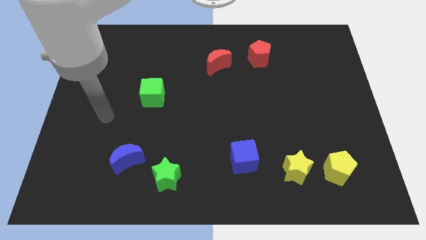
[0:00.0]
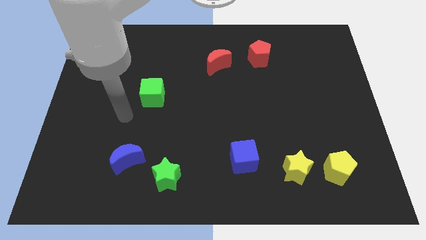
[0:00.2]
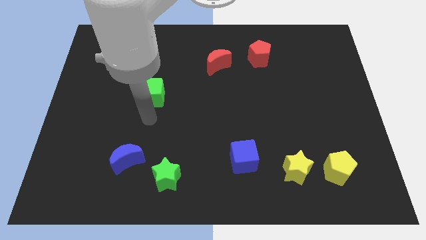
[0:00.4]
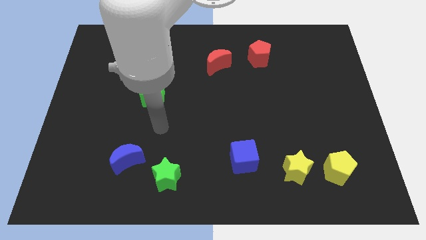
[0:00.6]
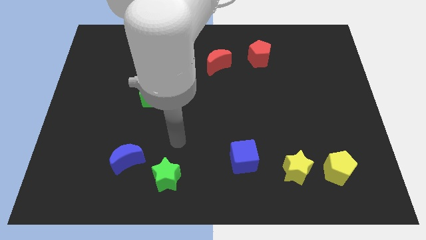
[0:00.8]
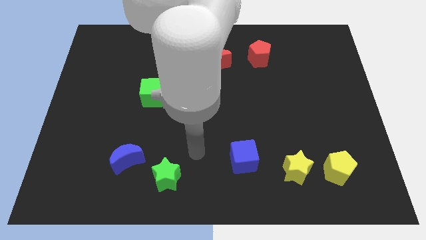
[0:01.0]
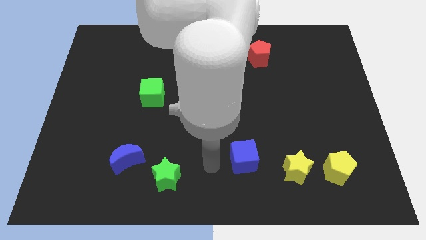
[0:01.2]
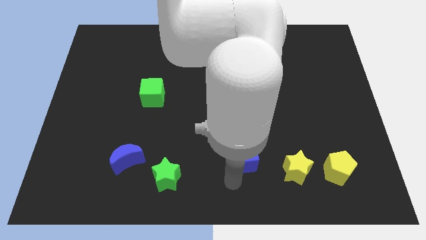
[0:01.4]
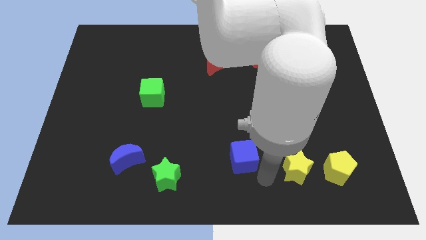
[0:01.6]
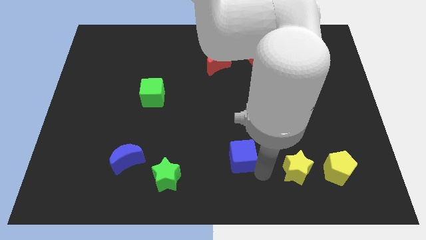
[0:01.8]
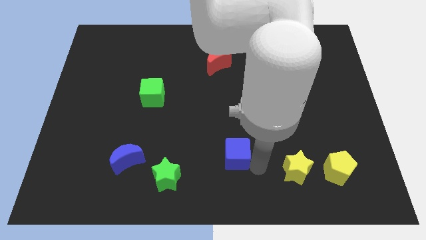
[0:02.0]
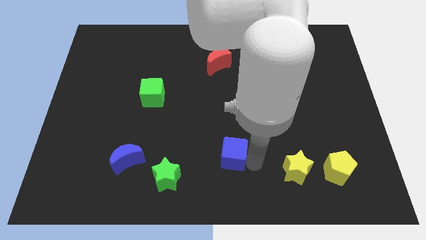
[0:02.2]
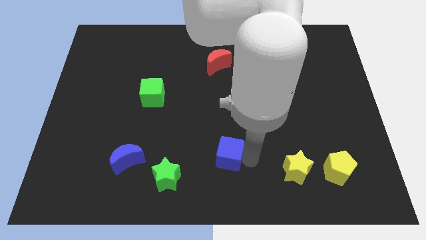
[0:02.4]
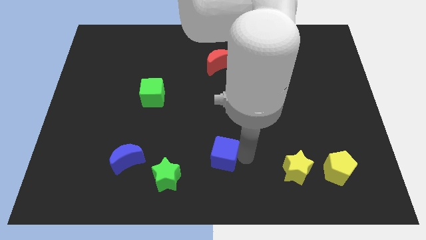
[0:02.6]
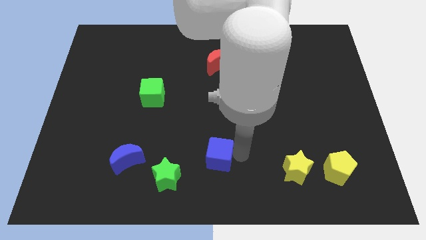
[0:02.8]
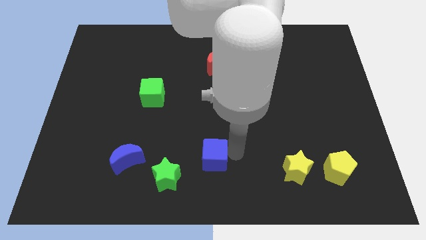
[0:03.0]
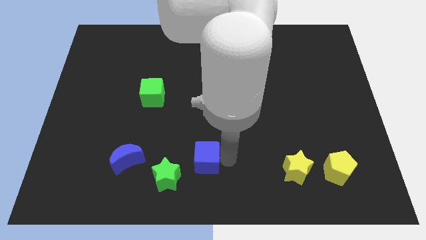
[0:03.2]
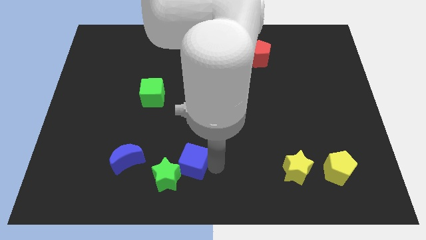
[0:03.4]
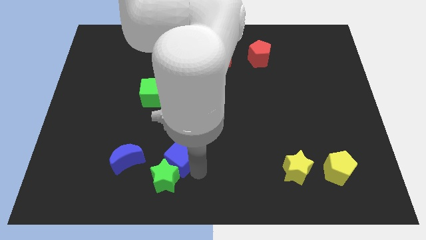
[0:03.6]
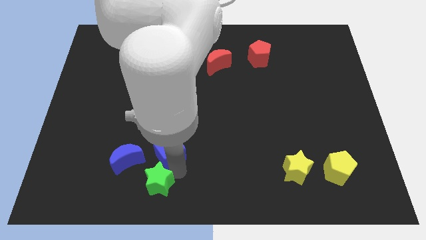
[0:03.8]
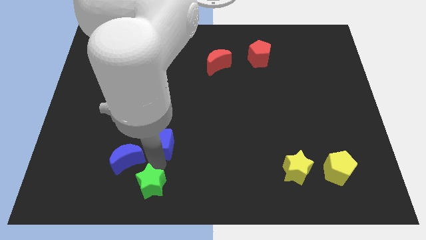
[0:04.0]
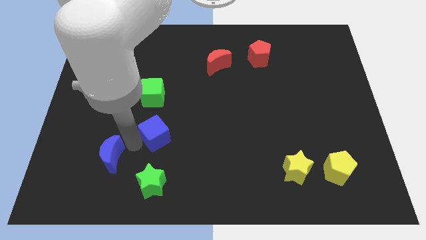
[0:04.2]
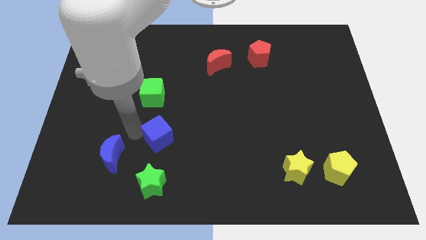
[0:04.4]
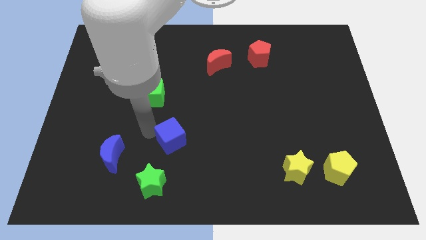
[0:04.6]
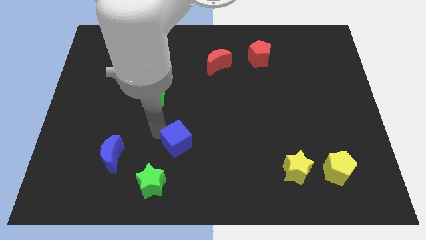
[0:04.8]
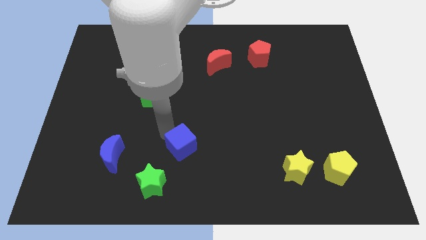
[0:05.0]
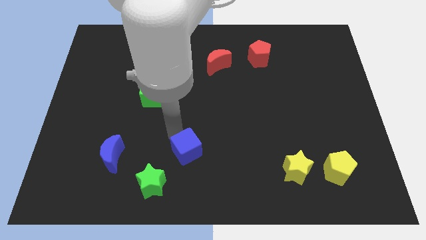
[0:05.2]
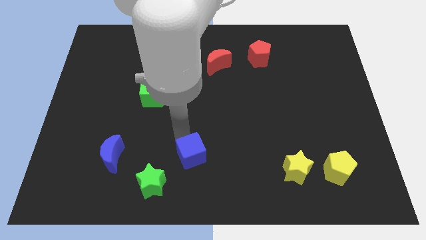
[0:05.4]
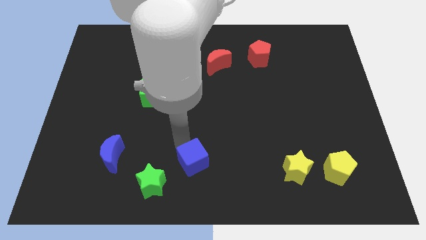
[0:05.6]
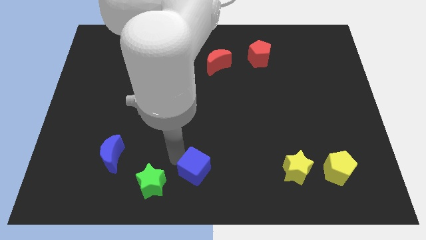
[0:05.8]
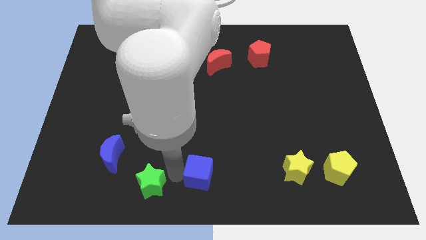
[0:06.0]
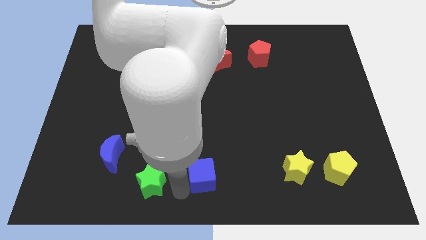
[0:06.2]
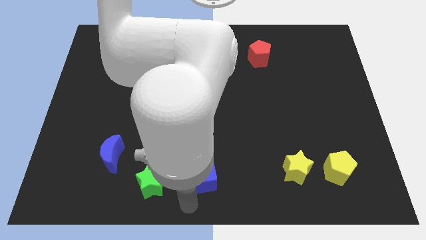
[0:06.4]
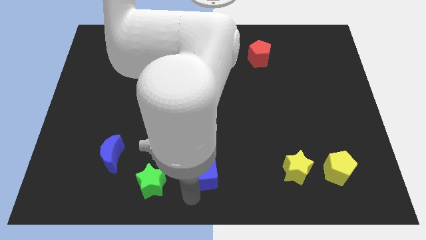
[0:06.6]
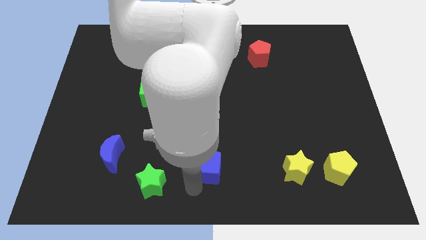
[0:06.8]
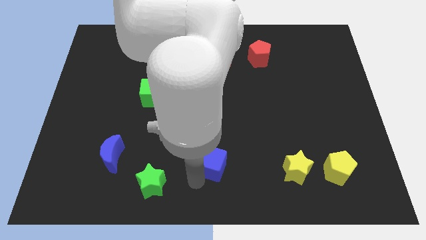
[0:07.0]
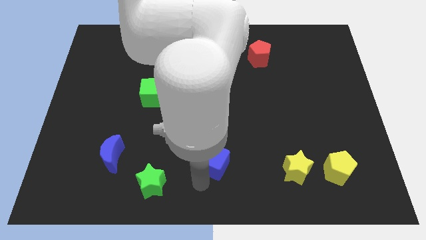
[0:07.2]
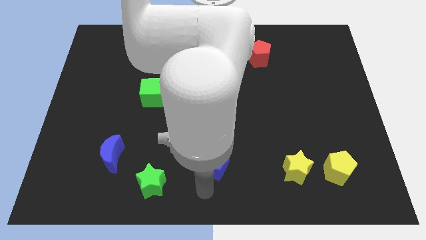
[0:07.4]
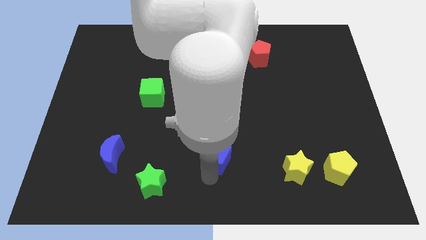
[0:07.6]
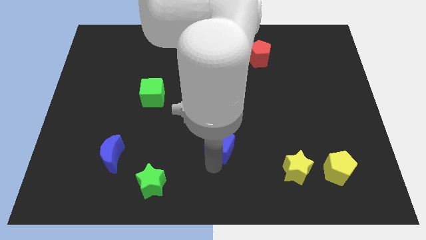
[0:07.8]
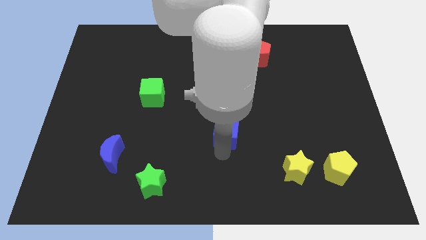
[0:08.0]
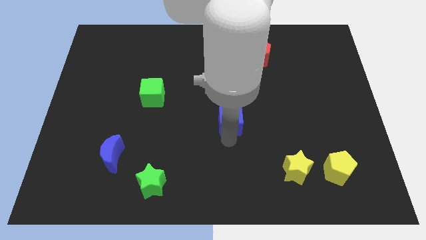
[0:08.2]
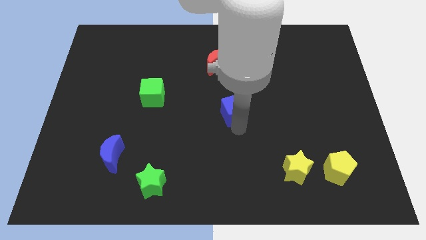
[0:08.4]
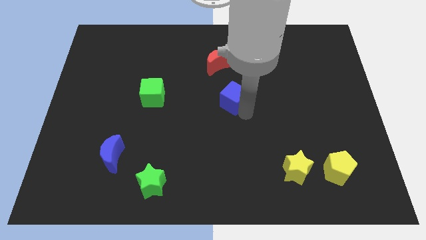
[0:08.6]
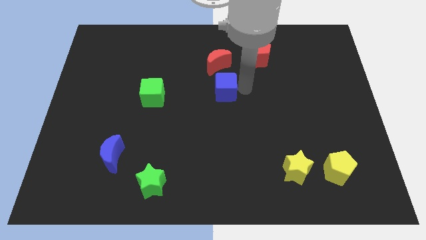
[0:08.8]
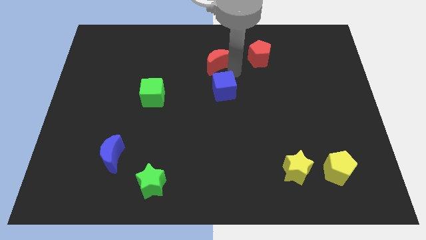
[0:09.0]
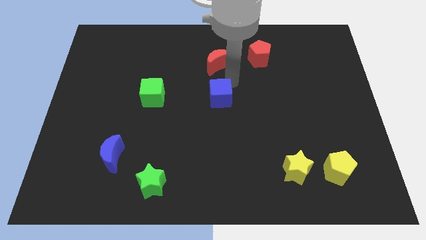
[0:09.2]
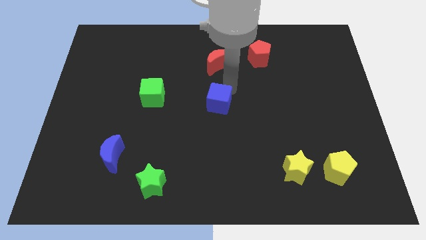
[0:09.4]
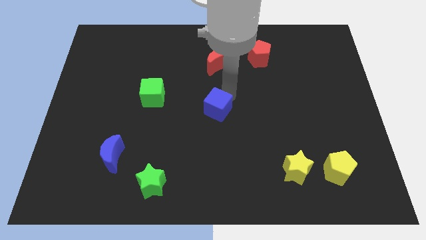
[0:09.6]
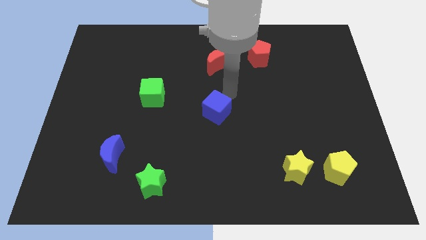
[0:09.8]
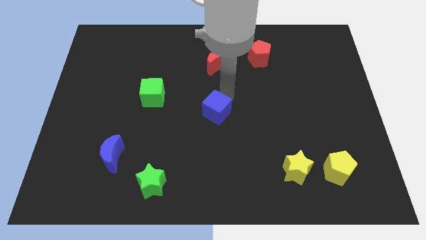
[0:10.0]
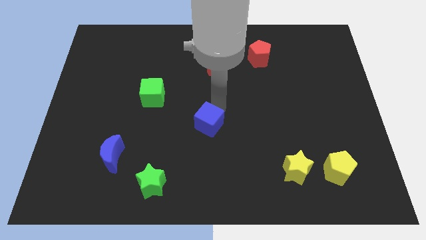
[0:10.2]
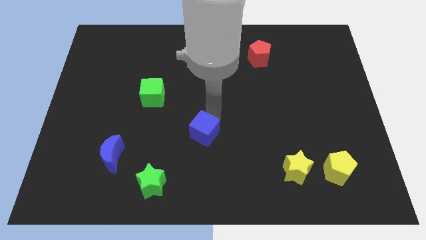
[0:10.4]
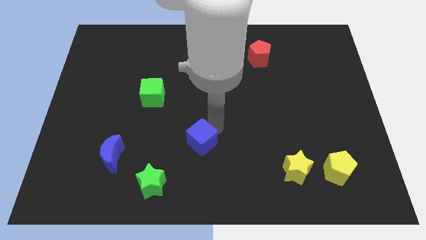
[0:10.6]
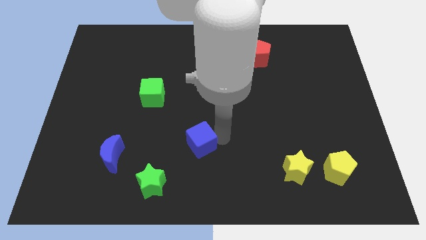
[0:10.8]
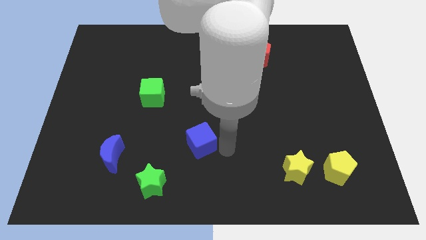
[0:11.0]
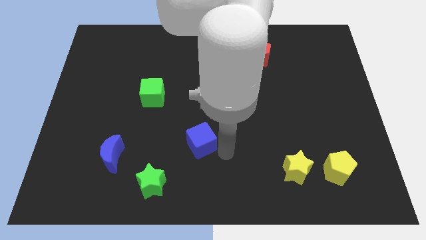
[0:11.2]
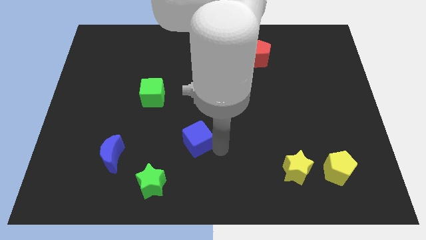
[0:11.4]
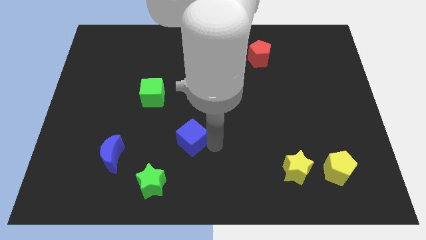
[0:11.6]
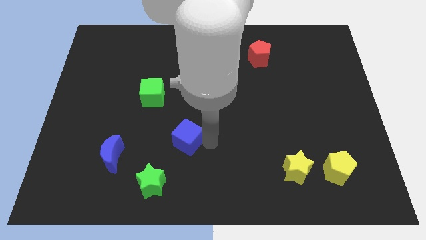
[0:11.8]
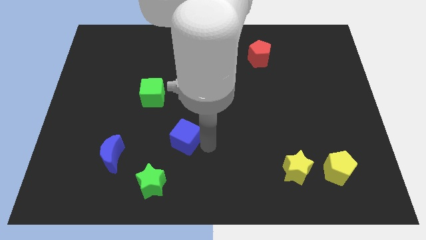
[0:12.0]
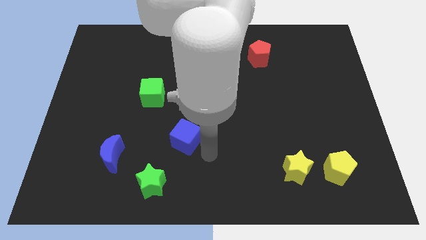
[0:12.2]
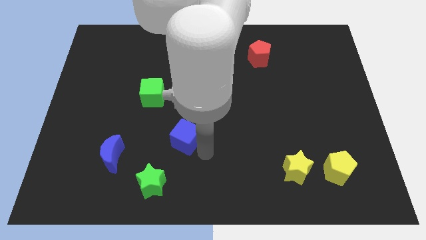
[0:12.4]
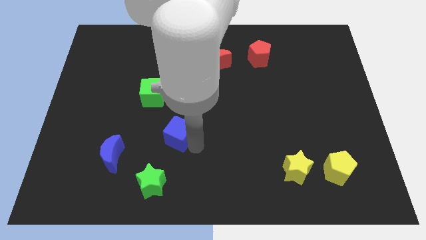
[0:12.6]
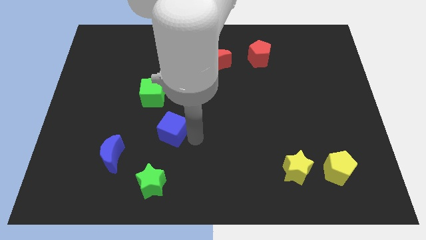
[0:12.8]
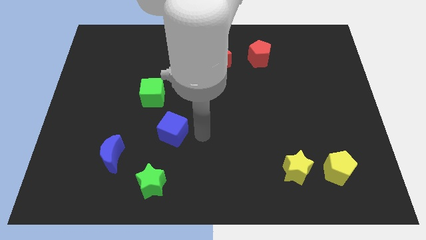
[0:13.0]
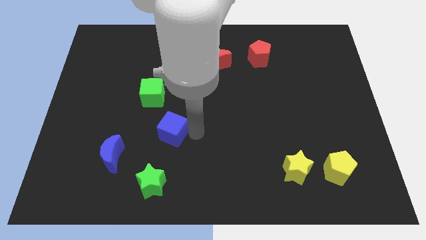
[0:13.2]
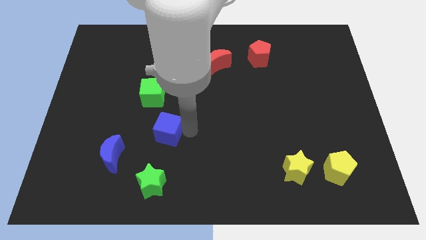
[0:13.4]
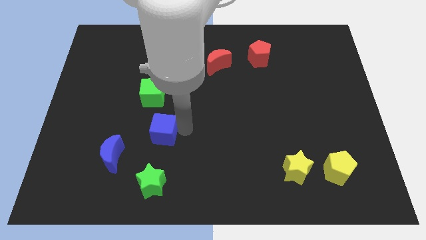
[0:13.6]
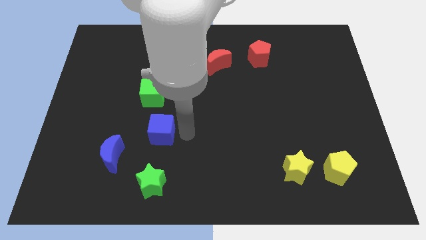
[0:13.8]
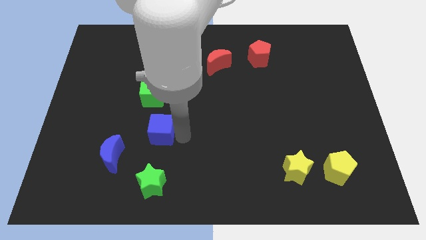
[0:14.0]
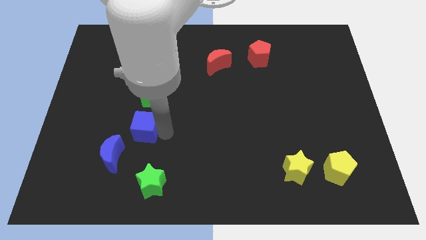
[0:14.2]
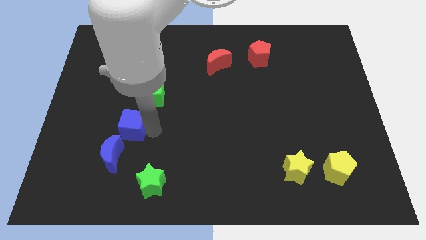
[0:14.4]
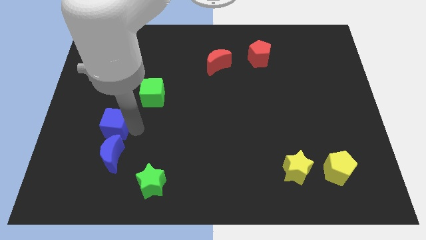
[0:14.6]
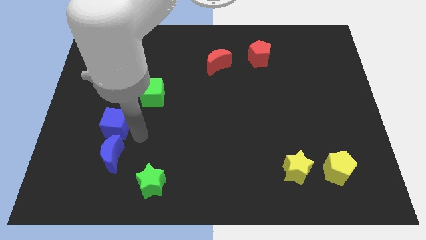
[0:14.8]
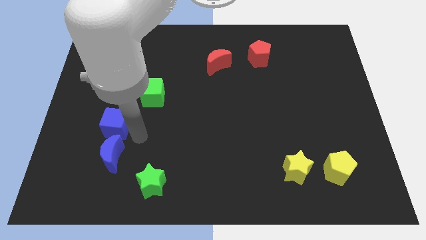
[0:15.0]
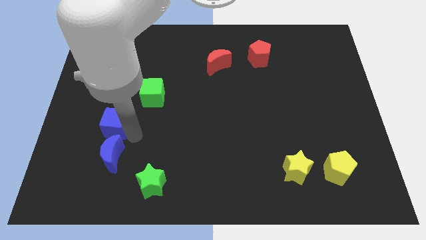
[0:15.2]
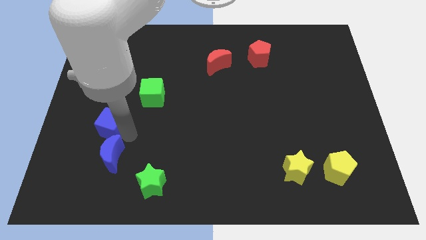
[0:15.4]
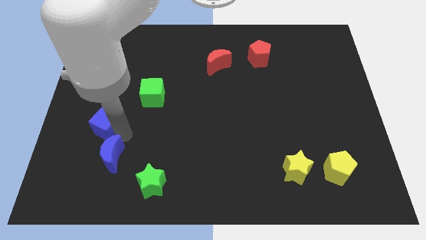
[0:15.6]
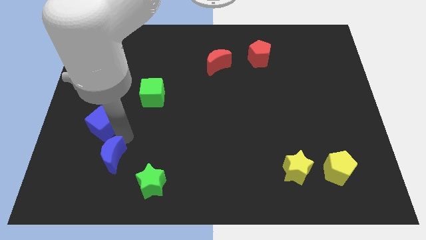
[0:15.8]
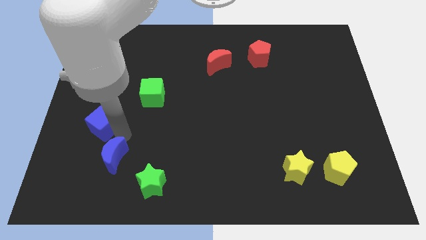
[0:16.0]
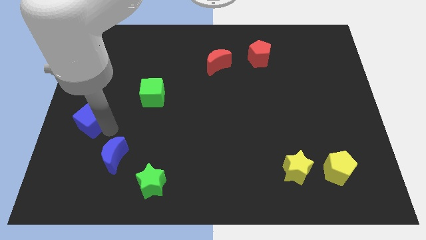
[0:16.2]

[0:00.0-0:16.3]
slide the blue cube to the left side
